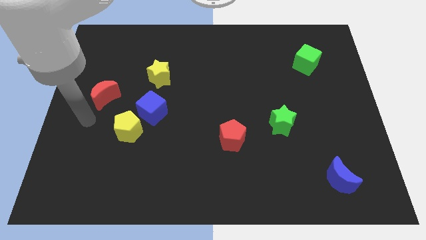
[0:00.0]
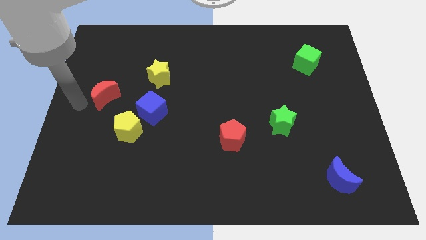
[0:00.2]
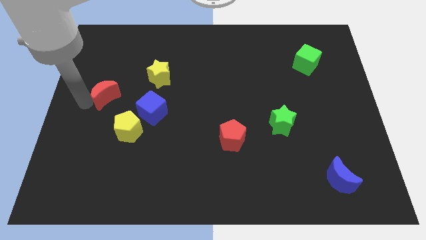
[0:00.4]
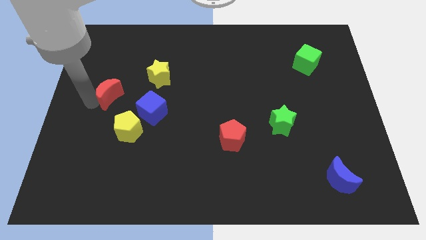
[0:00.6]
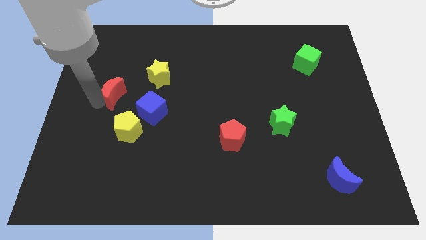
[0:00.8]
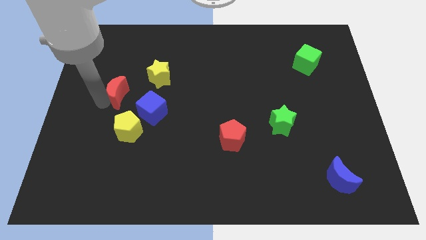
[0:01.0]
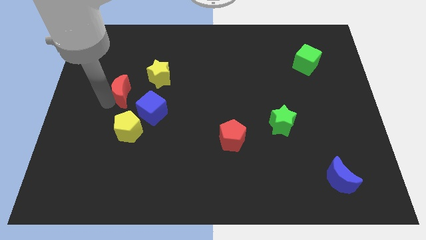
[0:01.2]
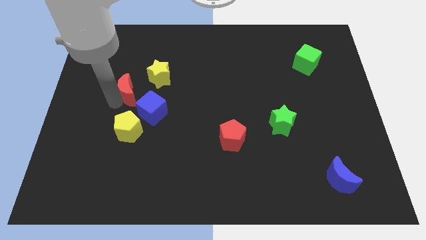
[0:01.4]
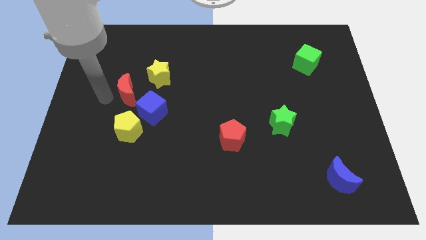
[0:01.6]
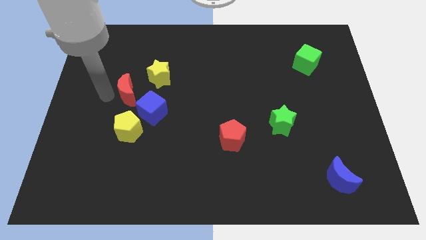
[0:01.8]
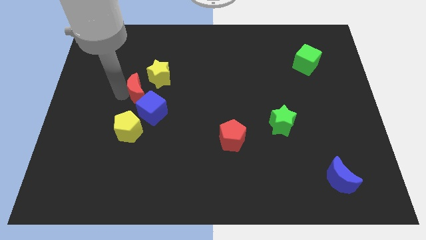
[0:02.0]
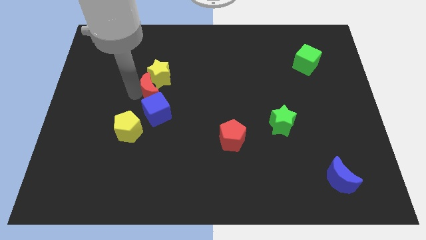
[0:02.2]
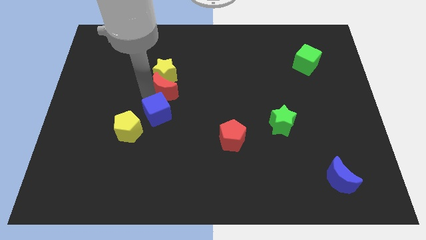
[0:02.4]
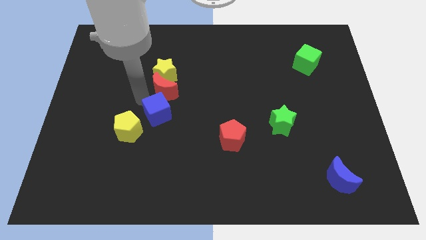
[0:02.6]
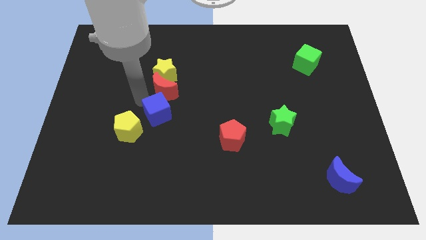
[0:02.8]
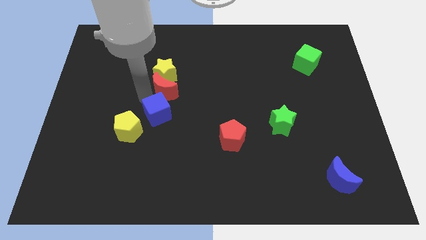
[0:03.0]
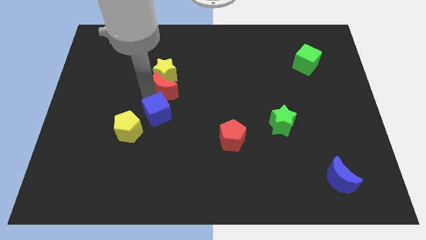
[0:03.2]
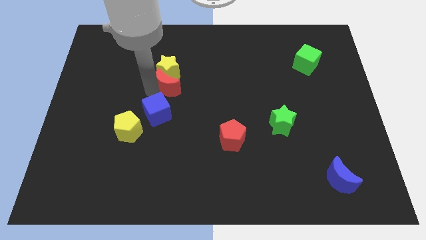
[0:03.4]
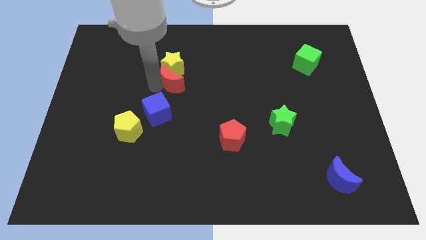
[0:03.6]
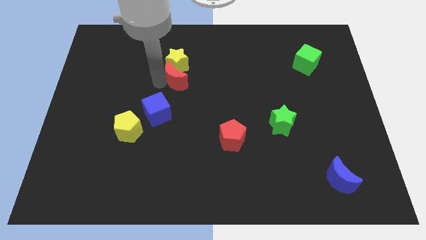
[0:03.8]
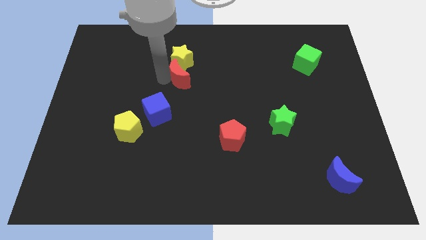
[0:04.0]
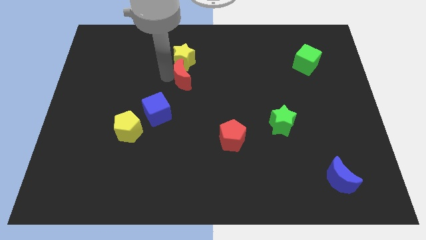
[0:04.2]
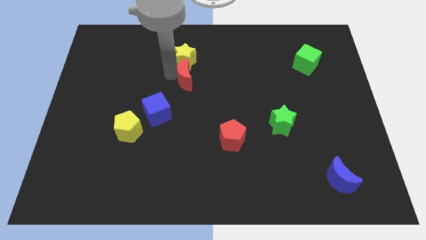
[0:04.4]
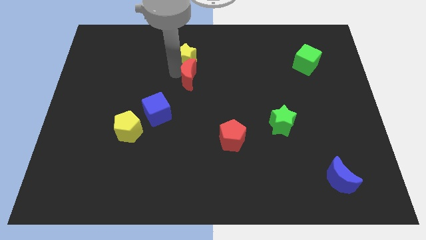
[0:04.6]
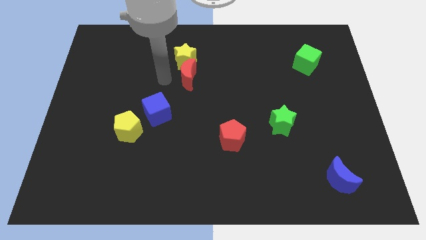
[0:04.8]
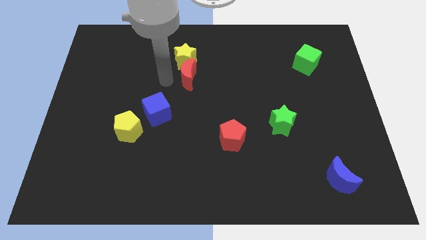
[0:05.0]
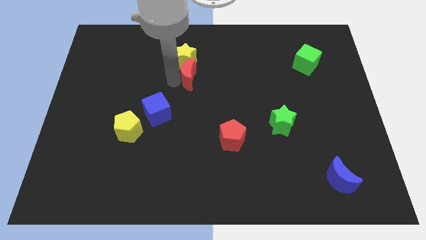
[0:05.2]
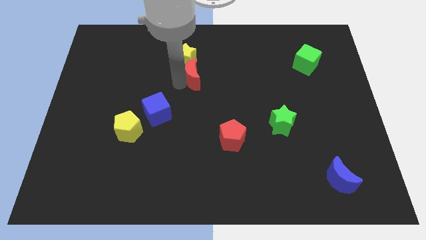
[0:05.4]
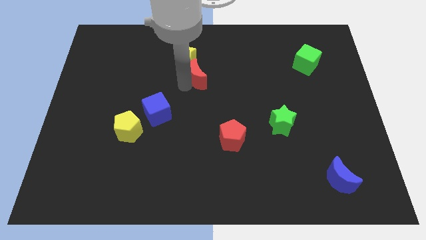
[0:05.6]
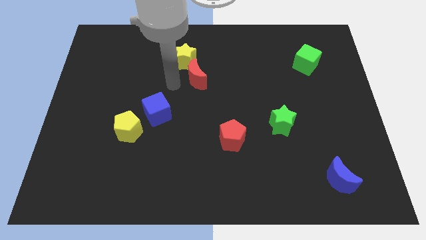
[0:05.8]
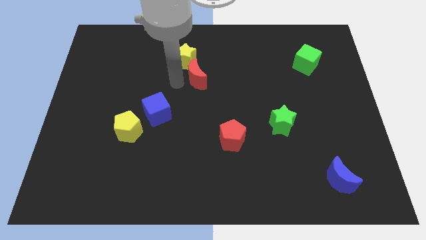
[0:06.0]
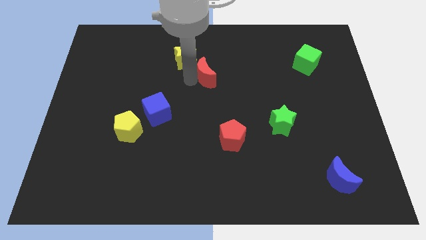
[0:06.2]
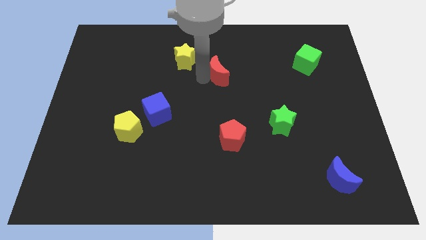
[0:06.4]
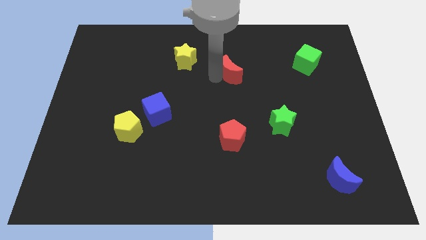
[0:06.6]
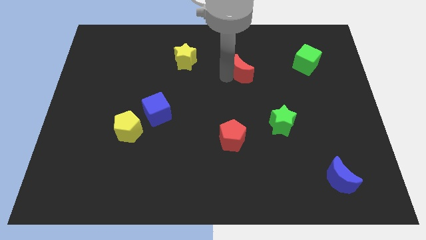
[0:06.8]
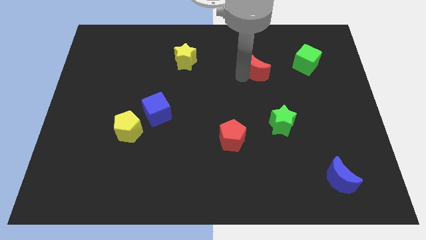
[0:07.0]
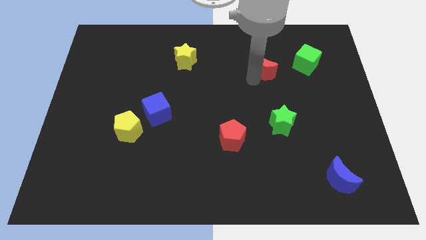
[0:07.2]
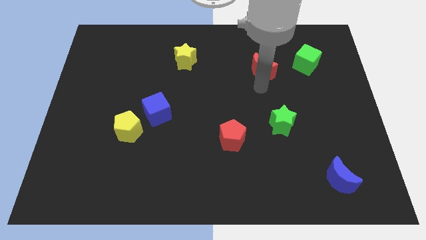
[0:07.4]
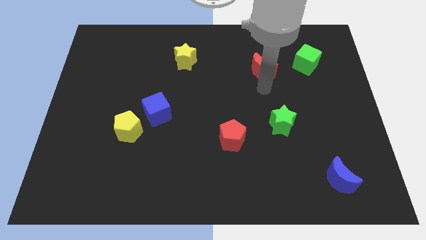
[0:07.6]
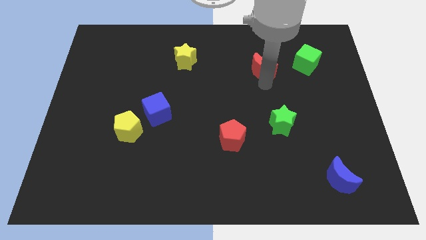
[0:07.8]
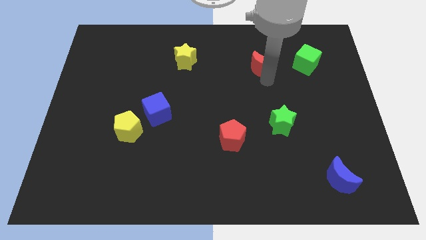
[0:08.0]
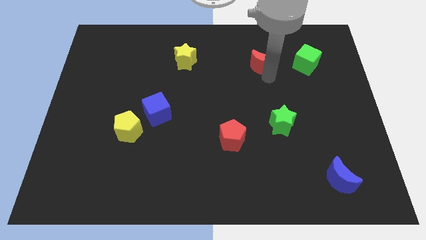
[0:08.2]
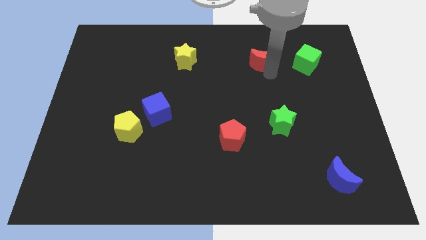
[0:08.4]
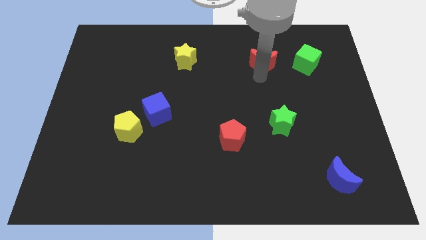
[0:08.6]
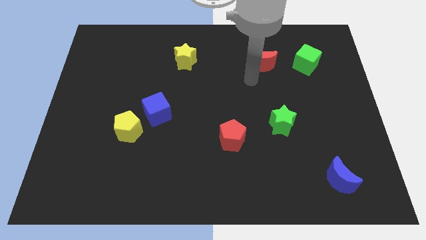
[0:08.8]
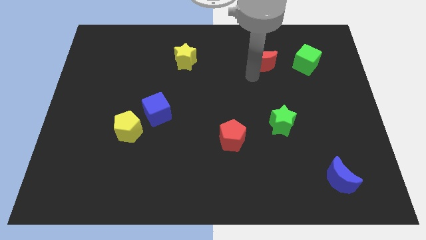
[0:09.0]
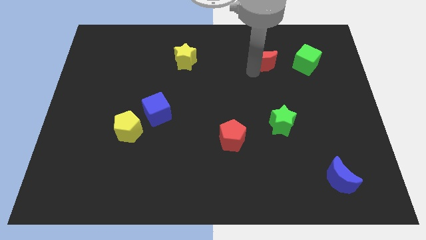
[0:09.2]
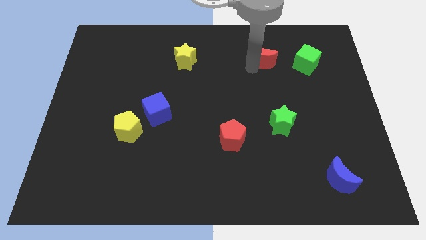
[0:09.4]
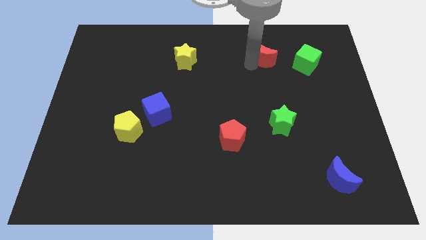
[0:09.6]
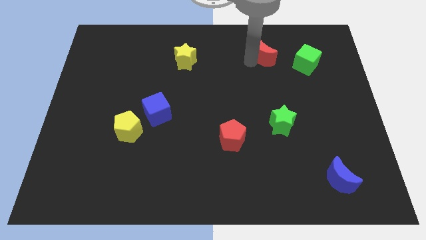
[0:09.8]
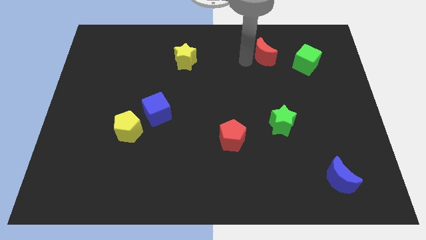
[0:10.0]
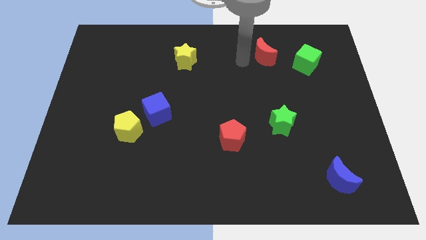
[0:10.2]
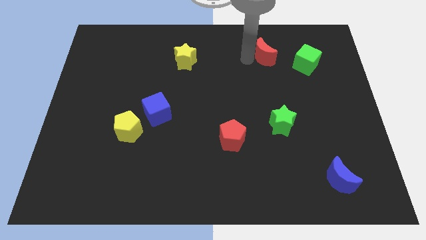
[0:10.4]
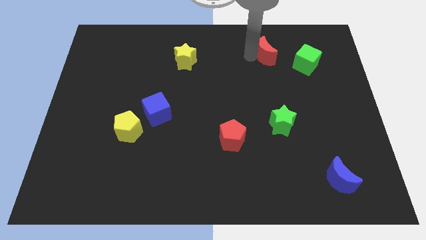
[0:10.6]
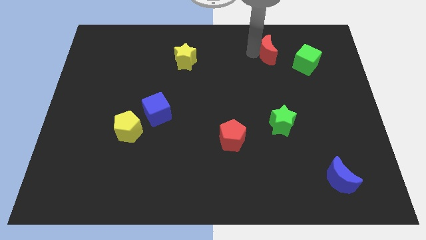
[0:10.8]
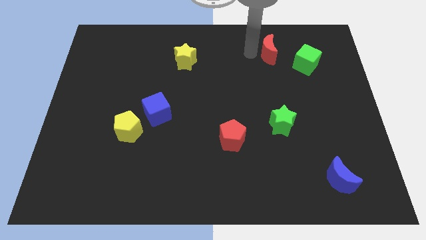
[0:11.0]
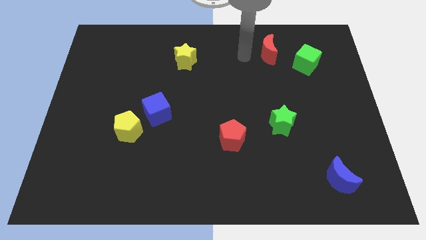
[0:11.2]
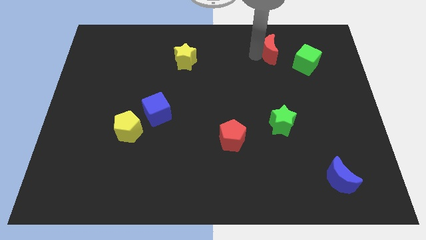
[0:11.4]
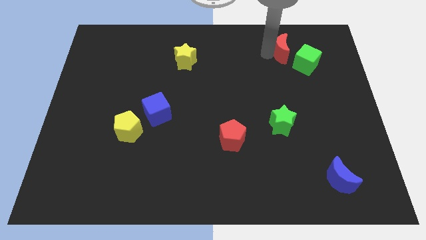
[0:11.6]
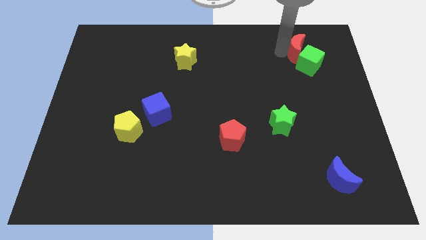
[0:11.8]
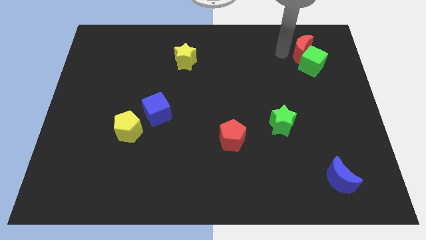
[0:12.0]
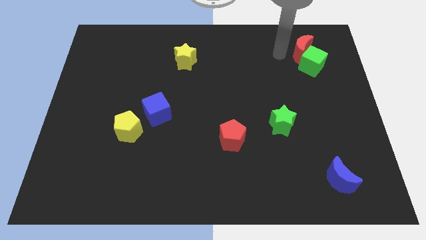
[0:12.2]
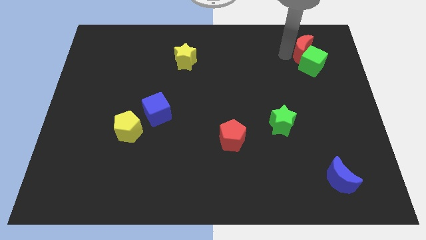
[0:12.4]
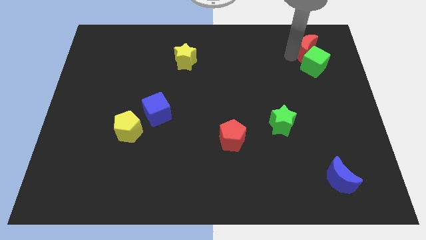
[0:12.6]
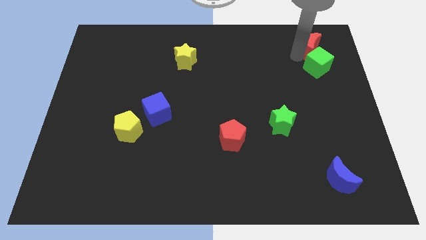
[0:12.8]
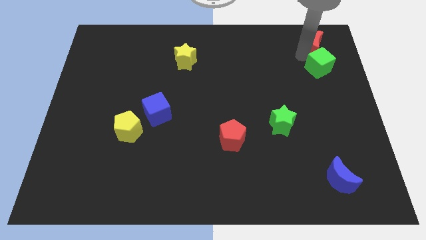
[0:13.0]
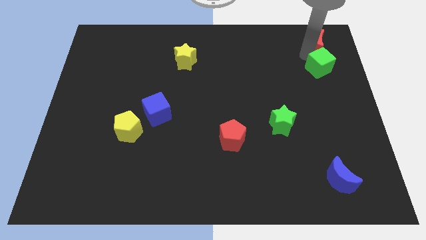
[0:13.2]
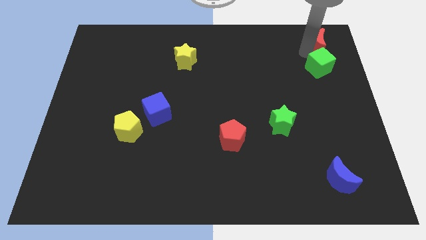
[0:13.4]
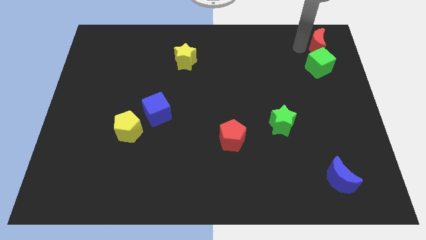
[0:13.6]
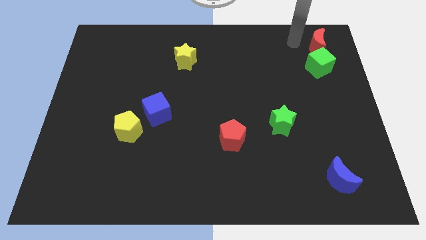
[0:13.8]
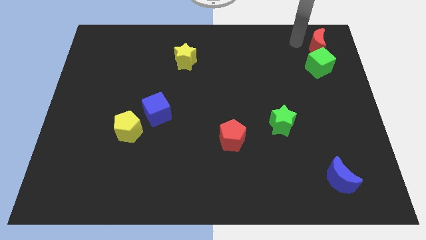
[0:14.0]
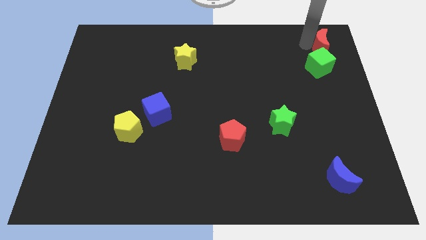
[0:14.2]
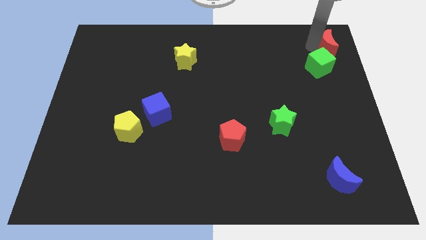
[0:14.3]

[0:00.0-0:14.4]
push the red moon to the upper right corner
